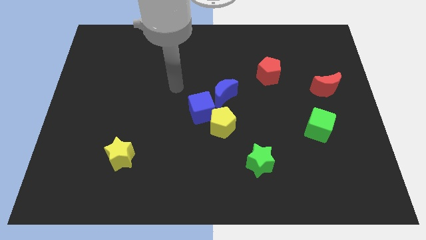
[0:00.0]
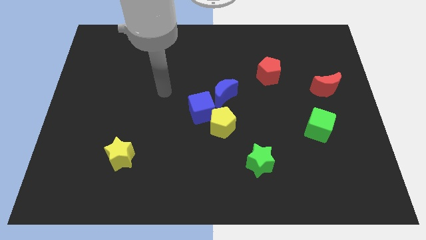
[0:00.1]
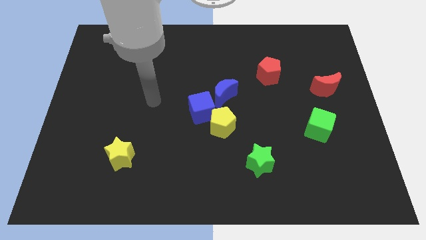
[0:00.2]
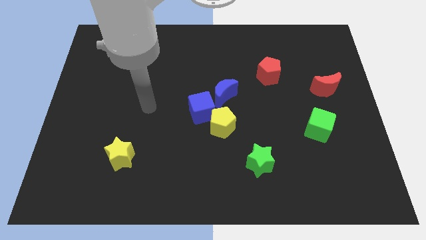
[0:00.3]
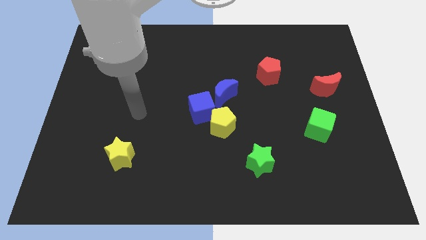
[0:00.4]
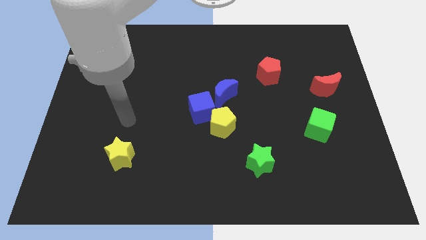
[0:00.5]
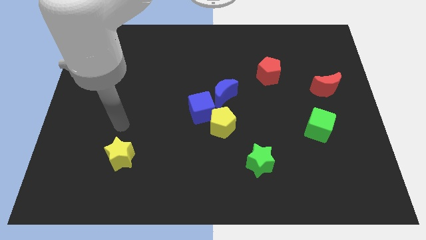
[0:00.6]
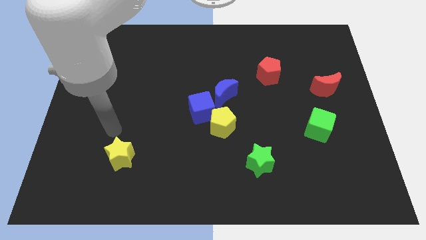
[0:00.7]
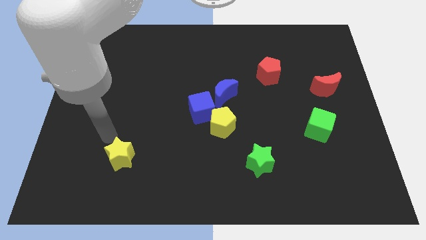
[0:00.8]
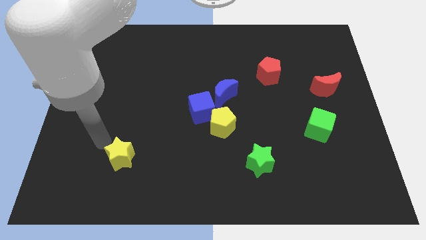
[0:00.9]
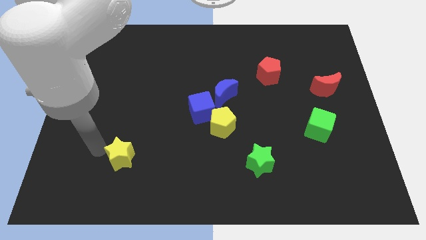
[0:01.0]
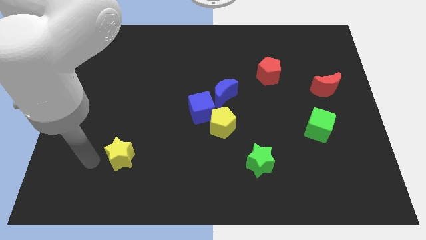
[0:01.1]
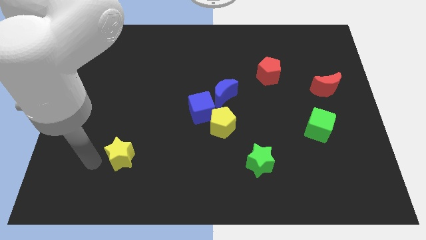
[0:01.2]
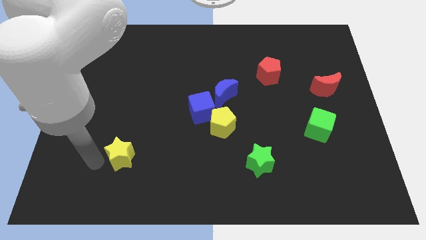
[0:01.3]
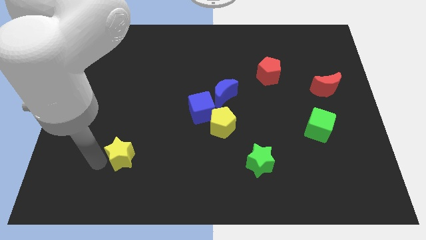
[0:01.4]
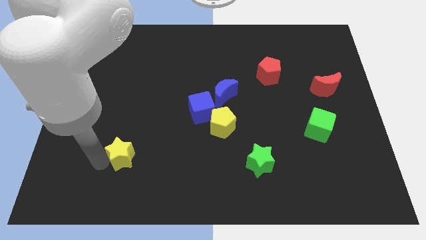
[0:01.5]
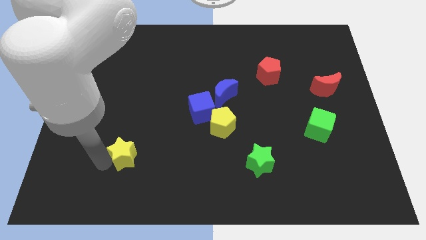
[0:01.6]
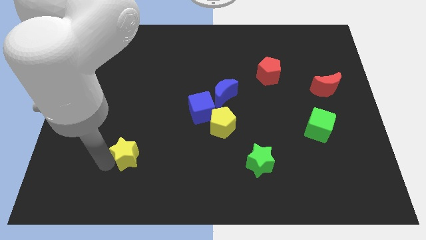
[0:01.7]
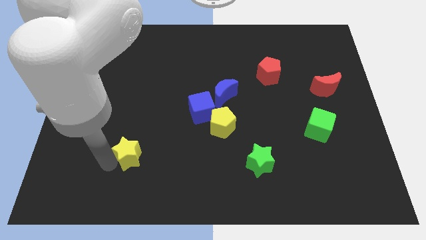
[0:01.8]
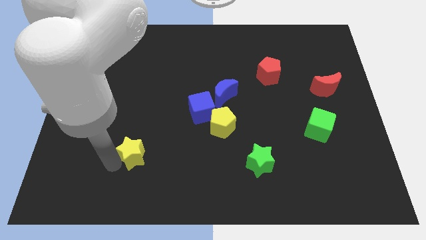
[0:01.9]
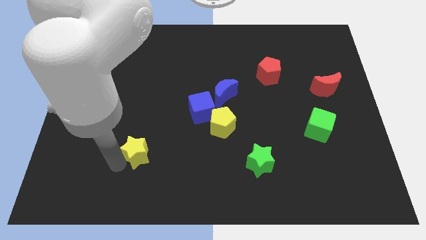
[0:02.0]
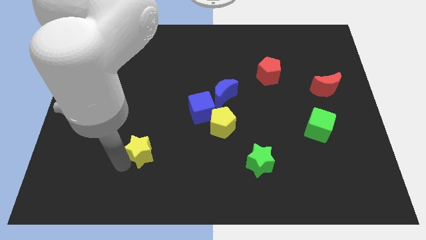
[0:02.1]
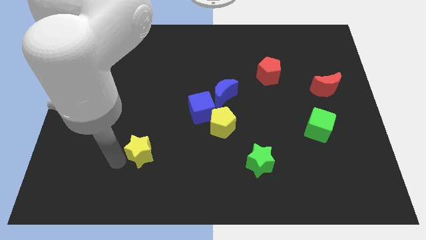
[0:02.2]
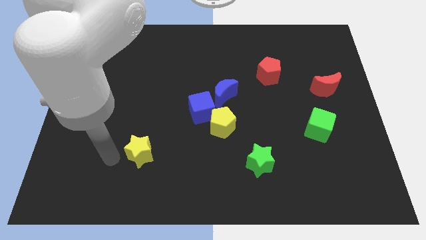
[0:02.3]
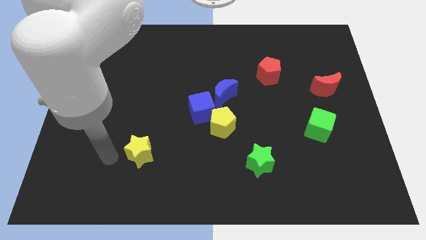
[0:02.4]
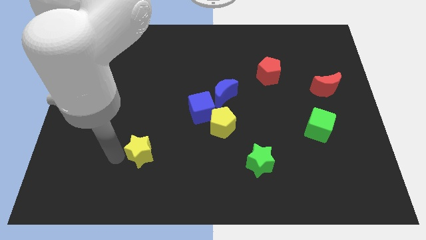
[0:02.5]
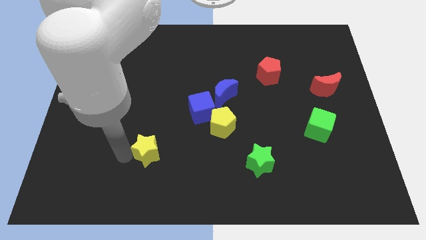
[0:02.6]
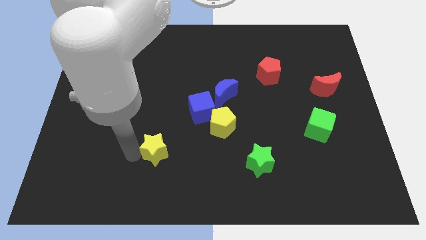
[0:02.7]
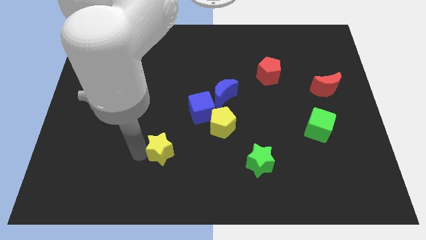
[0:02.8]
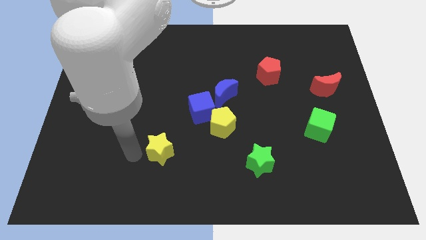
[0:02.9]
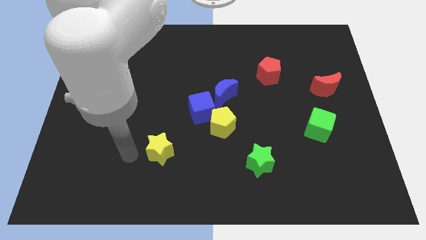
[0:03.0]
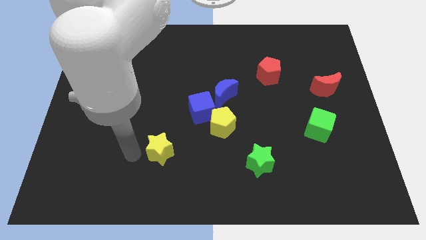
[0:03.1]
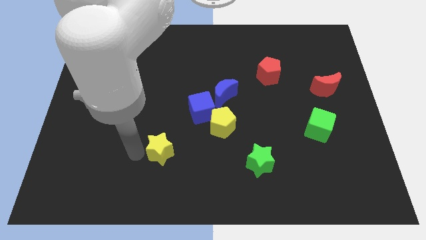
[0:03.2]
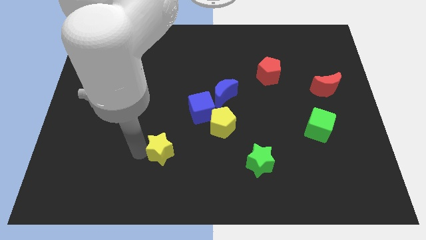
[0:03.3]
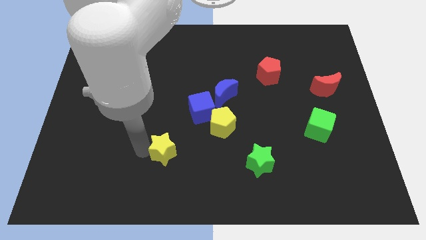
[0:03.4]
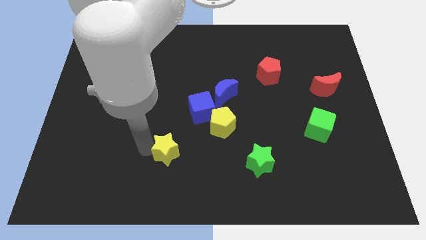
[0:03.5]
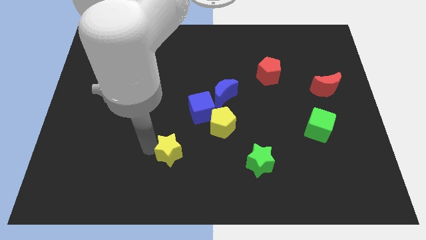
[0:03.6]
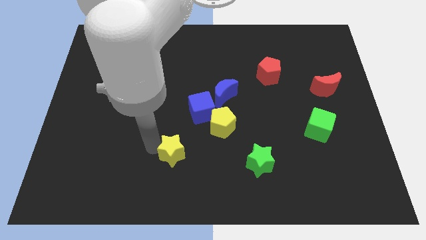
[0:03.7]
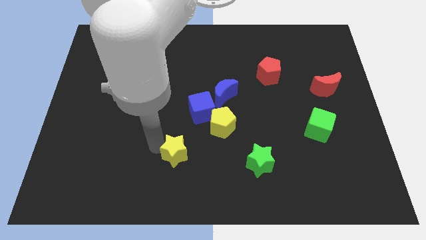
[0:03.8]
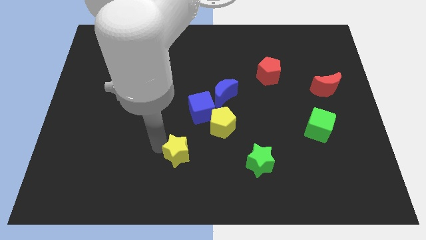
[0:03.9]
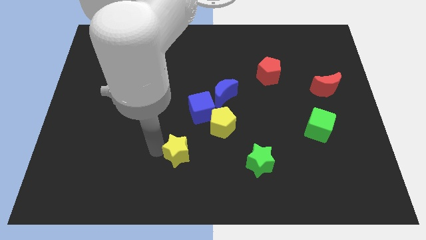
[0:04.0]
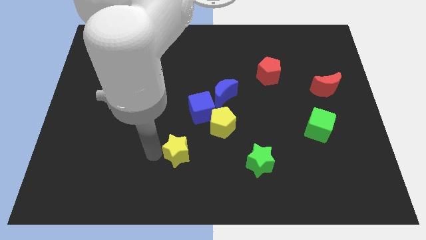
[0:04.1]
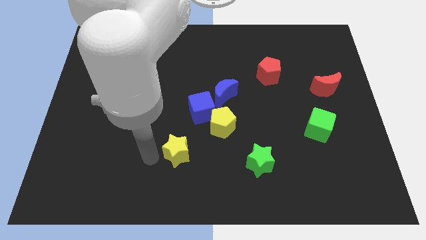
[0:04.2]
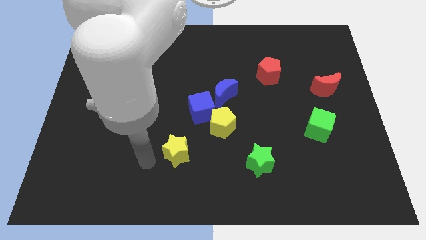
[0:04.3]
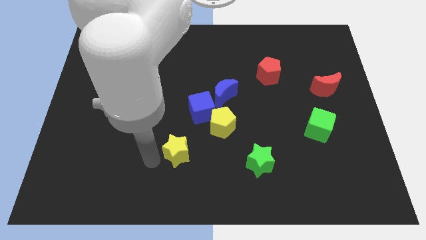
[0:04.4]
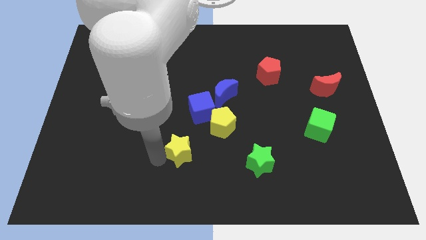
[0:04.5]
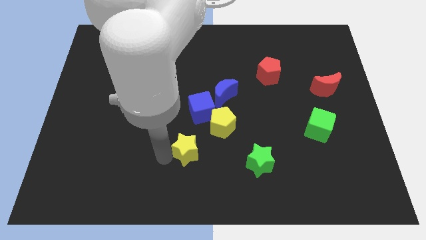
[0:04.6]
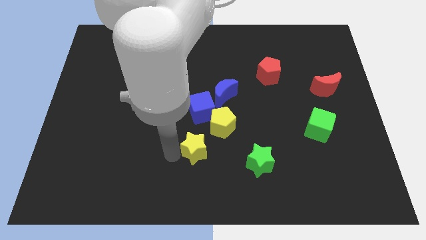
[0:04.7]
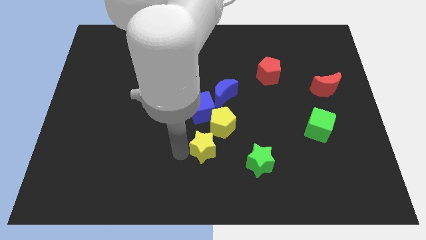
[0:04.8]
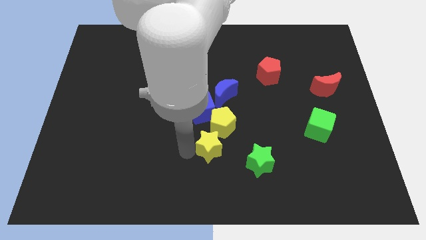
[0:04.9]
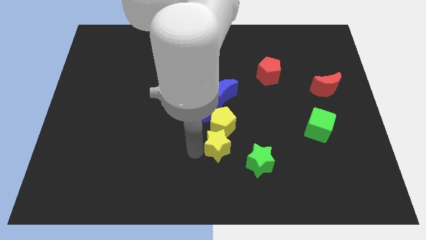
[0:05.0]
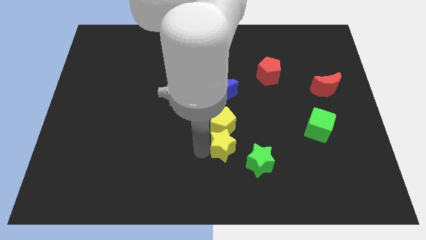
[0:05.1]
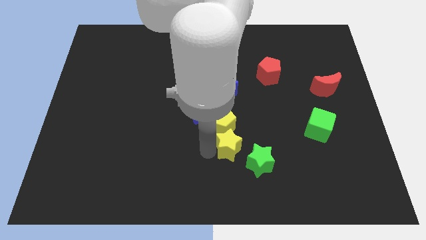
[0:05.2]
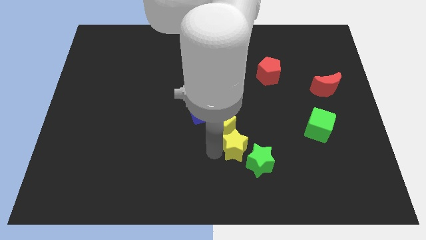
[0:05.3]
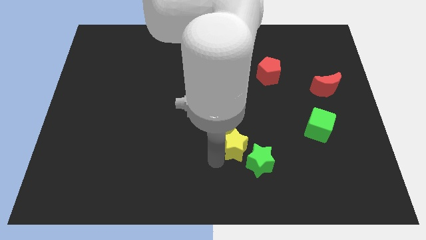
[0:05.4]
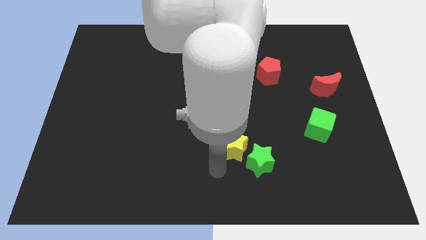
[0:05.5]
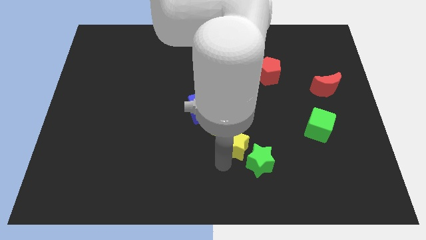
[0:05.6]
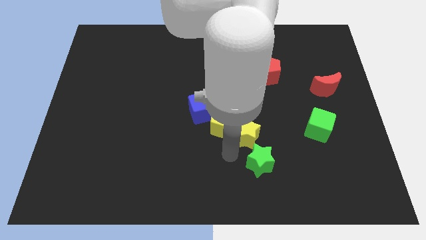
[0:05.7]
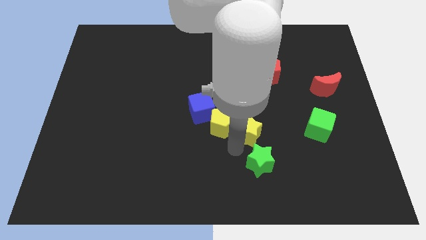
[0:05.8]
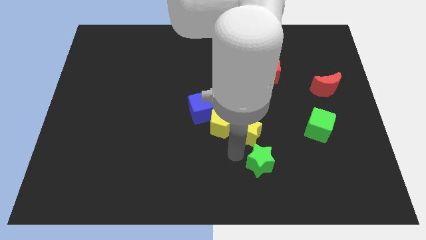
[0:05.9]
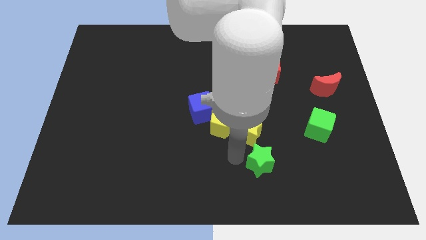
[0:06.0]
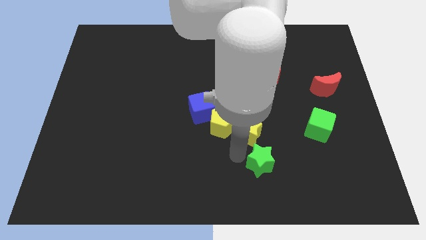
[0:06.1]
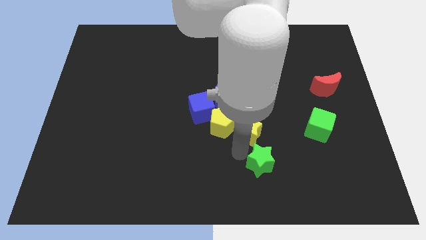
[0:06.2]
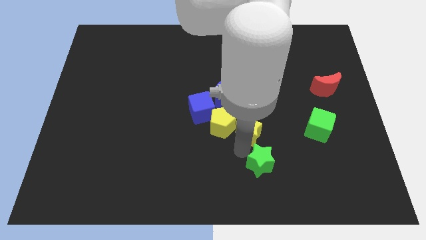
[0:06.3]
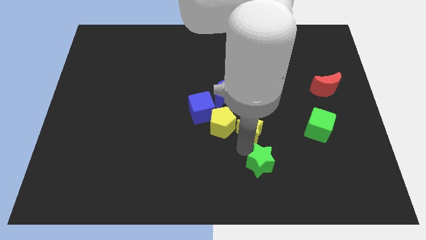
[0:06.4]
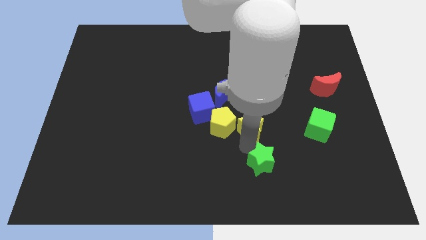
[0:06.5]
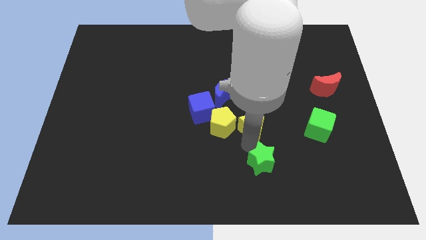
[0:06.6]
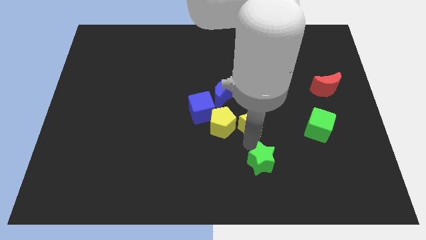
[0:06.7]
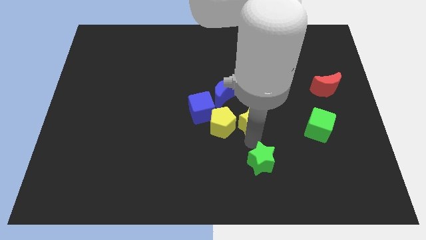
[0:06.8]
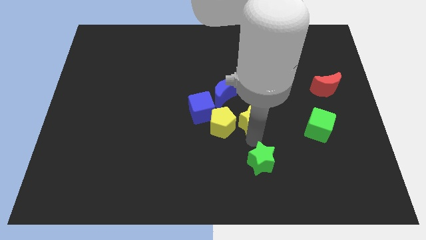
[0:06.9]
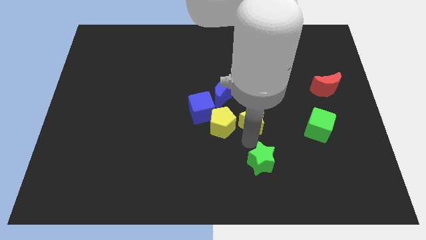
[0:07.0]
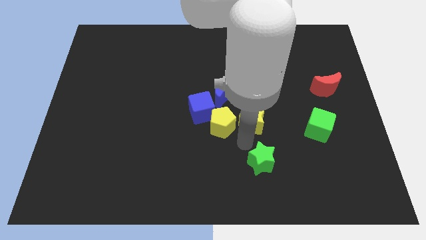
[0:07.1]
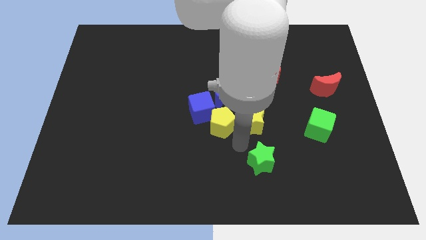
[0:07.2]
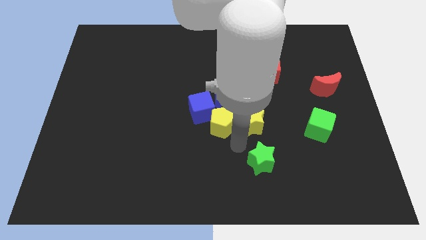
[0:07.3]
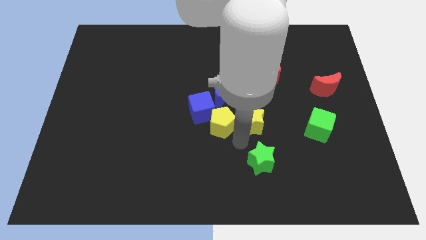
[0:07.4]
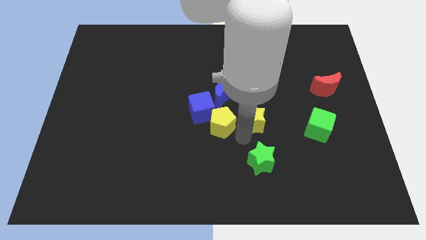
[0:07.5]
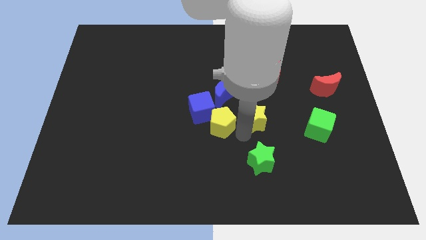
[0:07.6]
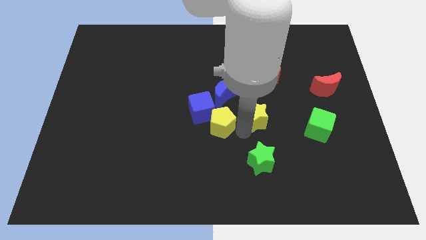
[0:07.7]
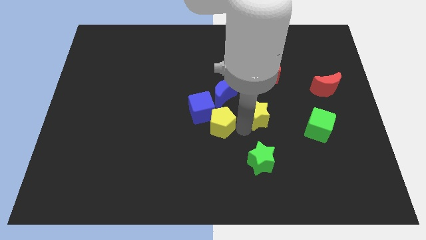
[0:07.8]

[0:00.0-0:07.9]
move the yellow star to the bottom of the red pentagon

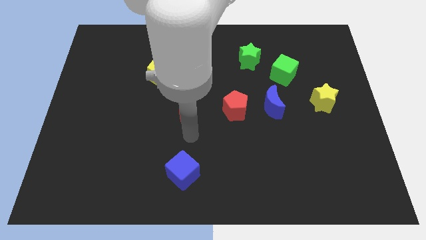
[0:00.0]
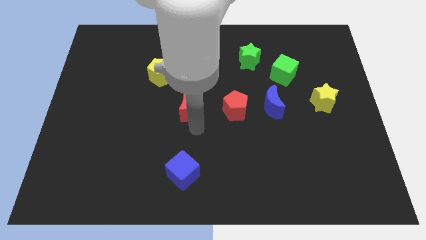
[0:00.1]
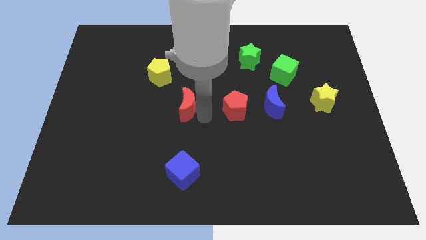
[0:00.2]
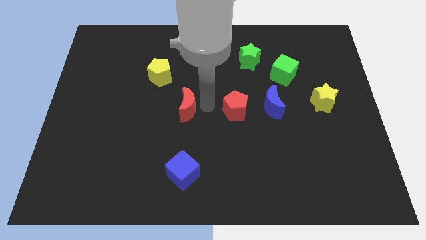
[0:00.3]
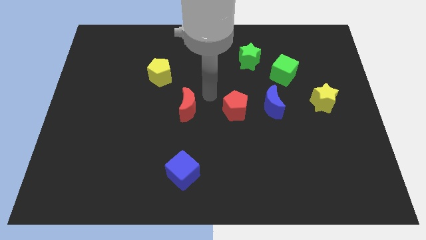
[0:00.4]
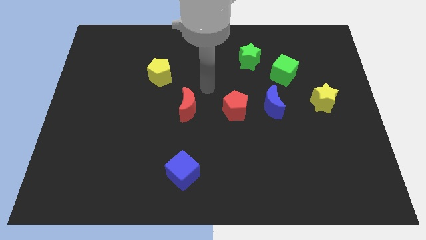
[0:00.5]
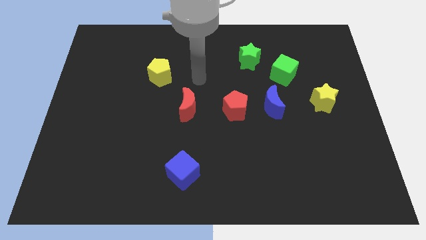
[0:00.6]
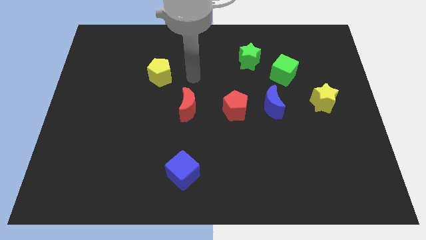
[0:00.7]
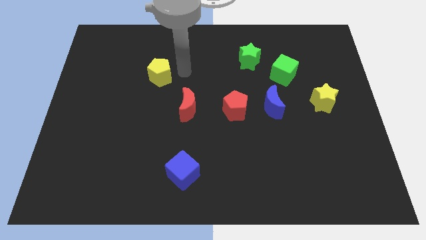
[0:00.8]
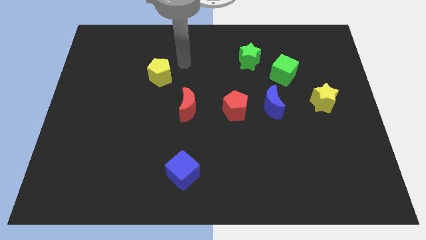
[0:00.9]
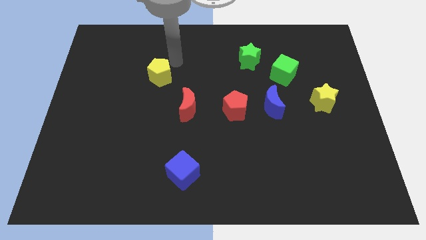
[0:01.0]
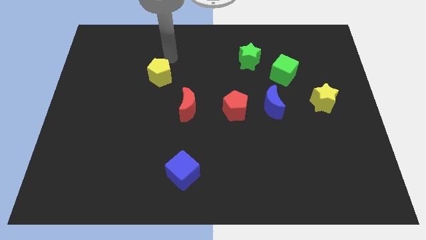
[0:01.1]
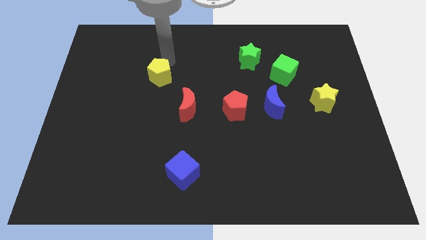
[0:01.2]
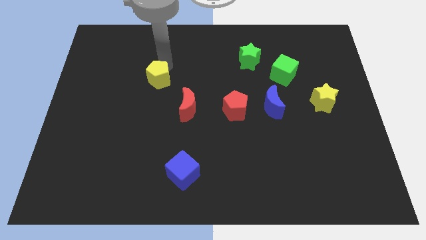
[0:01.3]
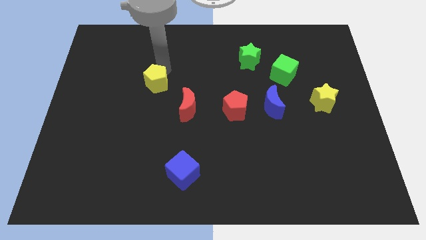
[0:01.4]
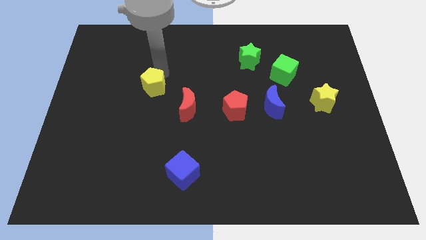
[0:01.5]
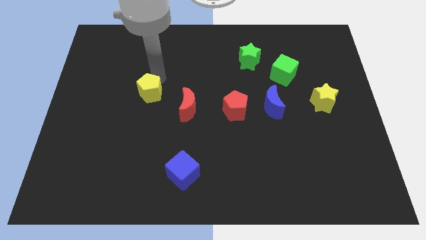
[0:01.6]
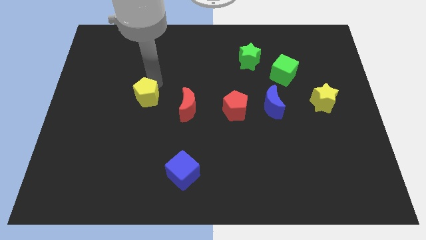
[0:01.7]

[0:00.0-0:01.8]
slide the yellow pentagon just left of the red moon
